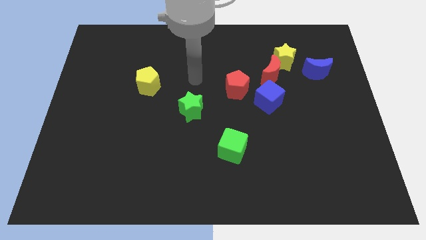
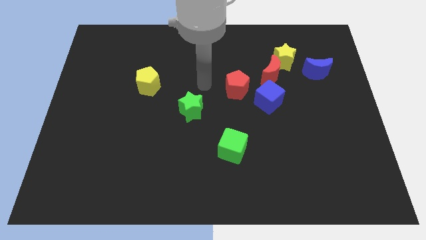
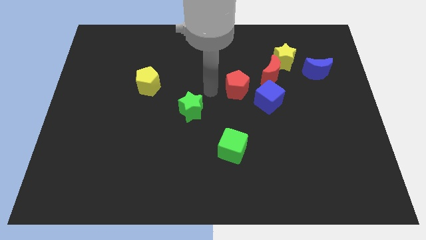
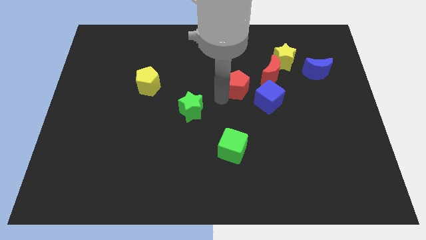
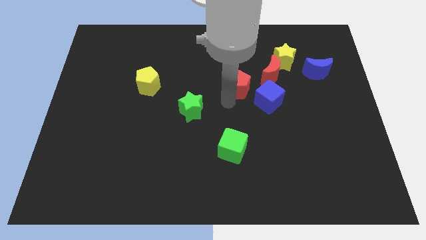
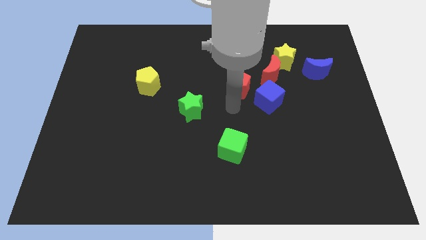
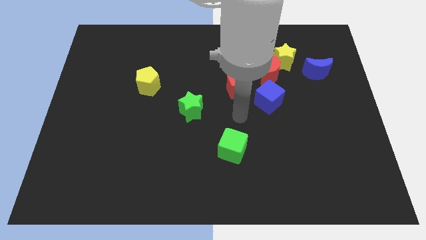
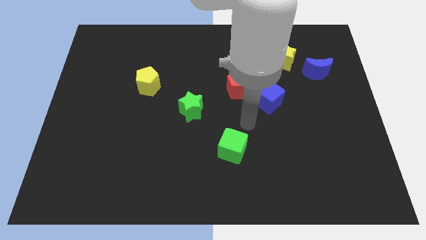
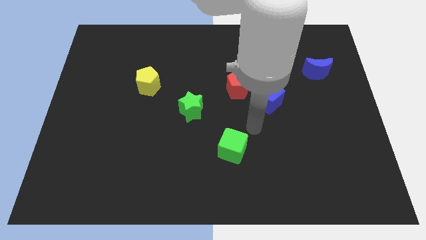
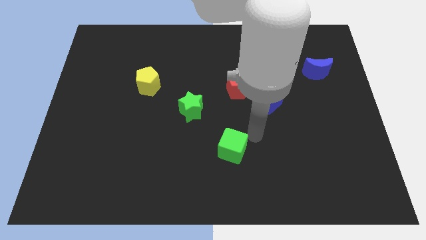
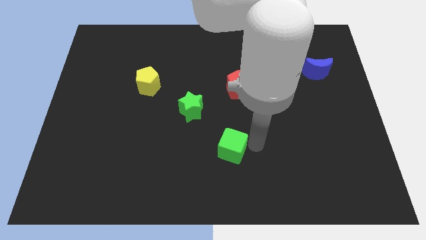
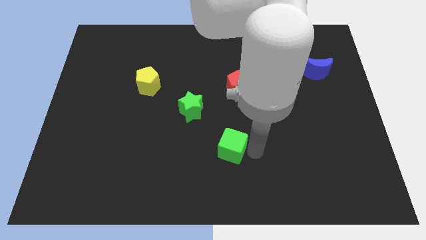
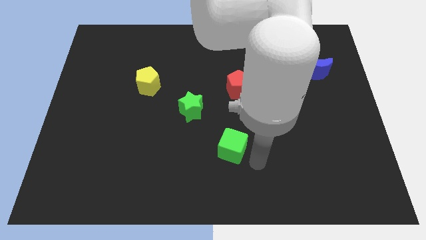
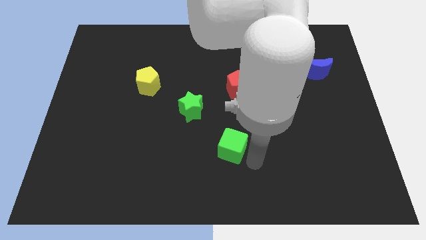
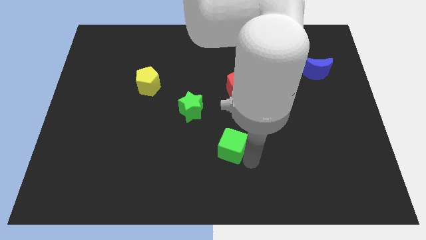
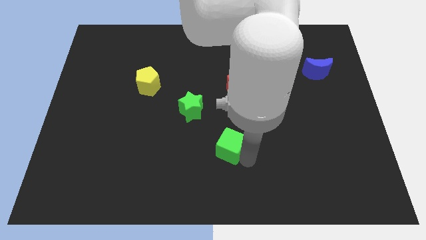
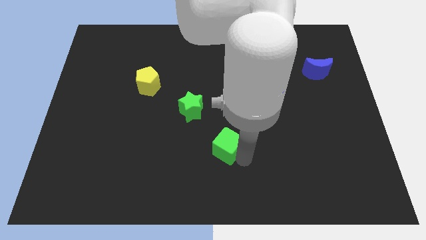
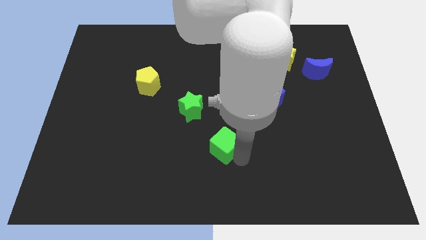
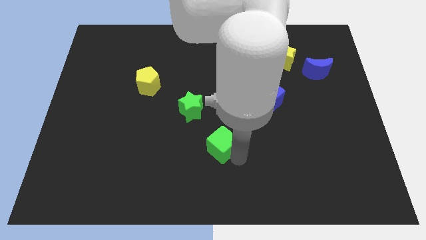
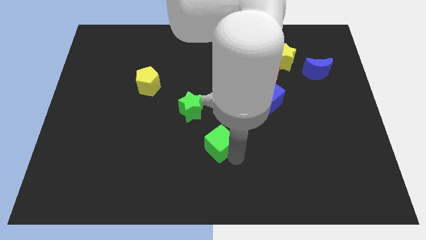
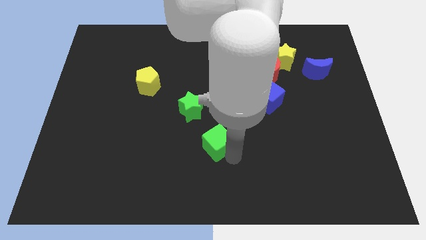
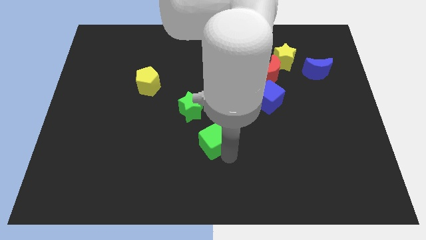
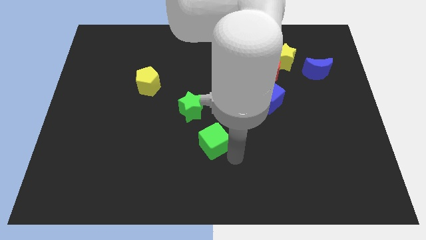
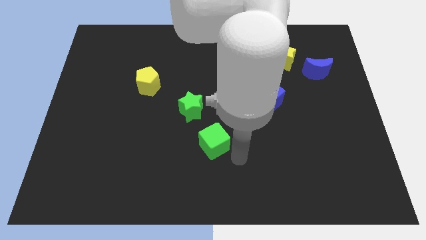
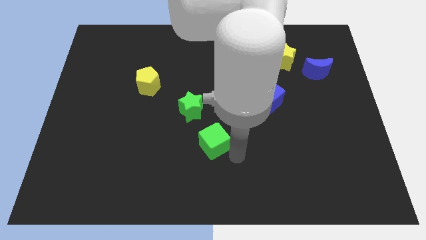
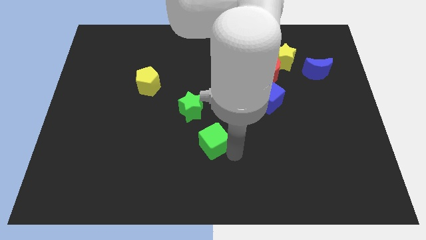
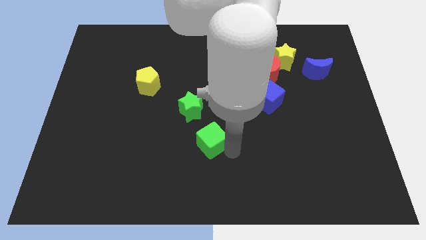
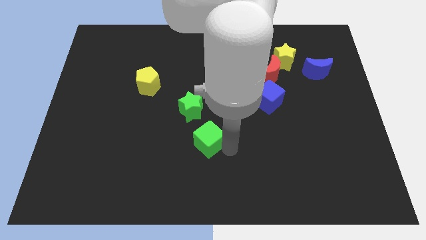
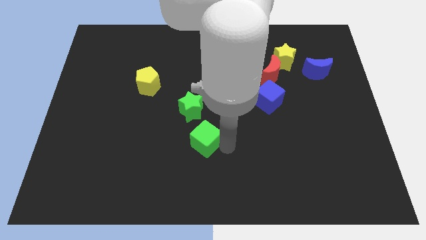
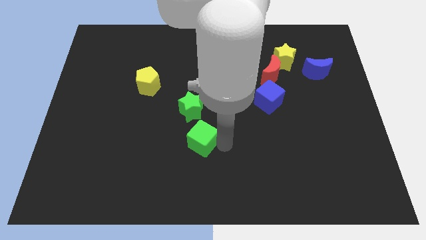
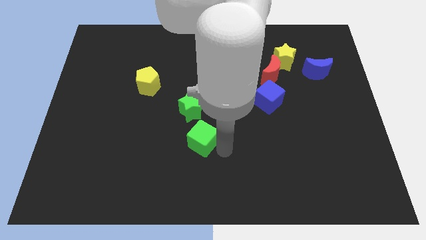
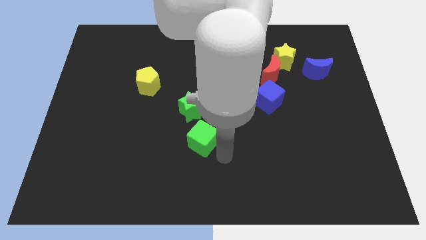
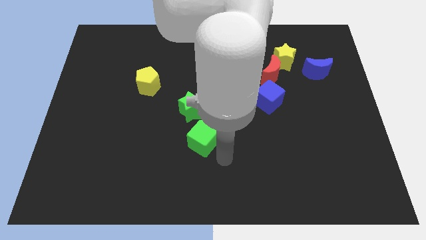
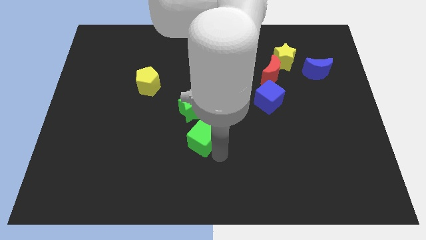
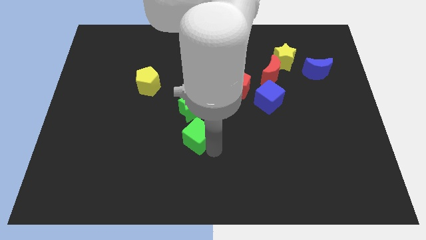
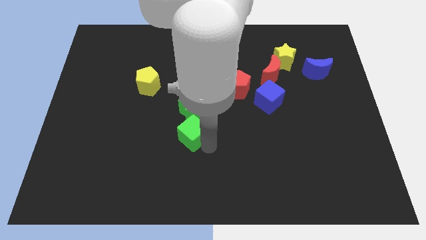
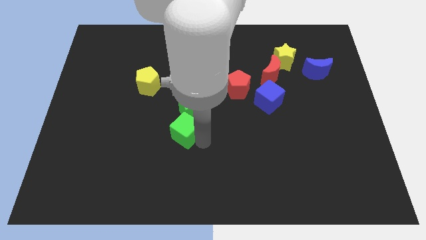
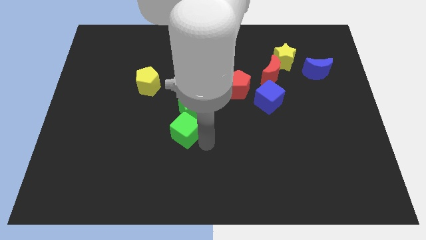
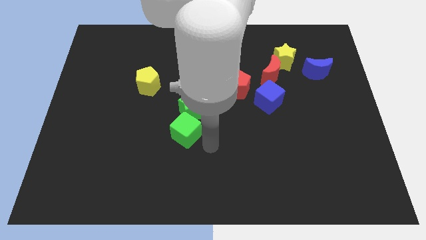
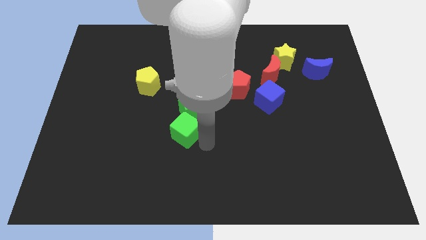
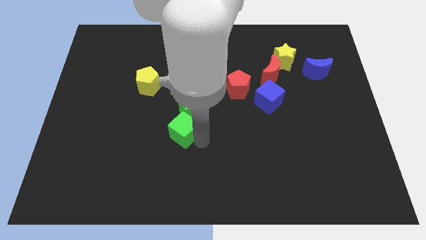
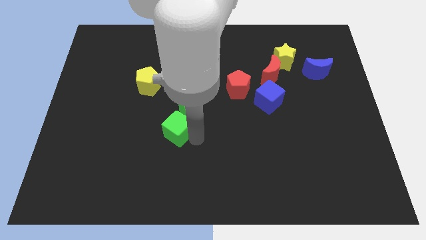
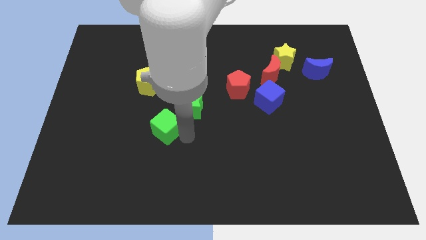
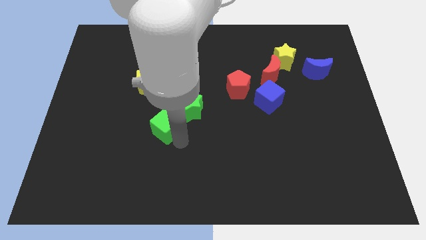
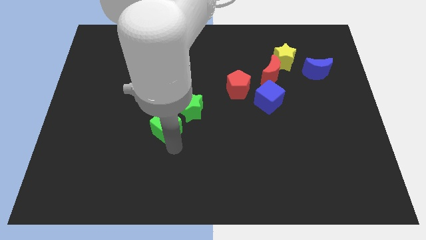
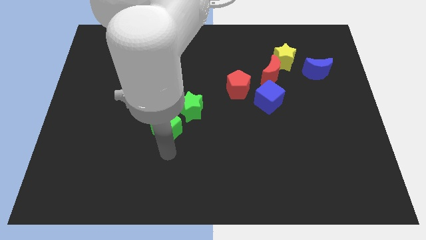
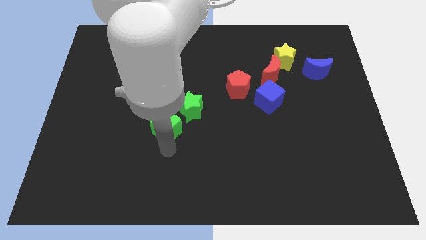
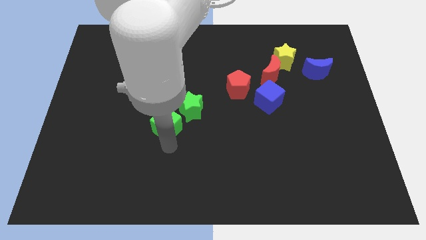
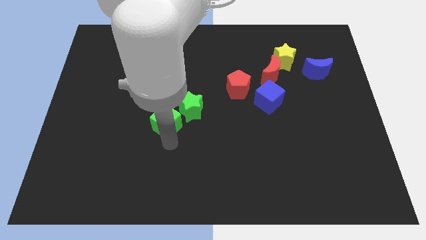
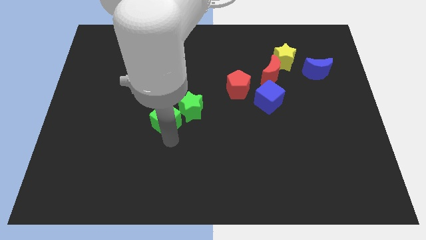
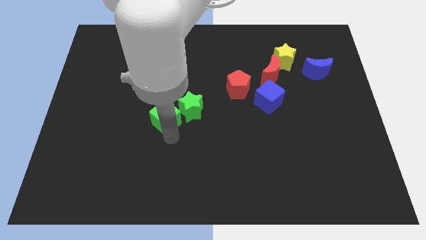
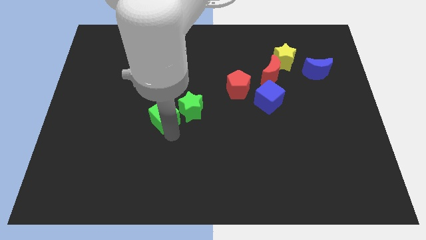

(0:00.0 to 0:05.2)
move the green cube to the bottom right side of the yellow pentagon
